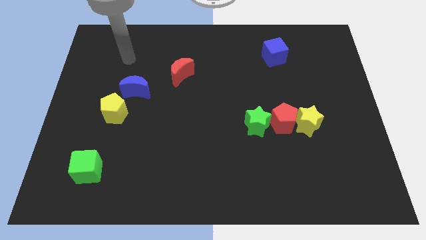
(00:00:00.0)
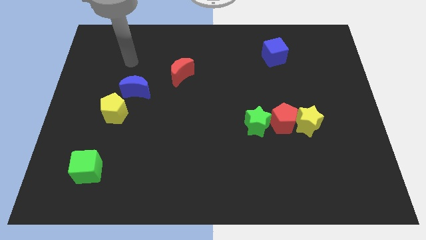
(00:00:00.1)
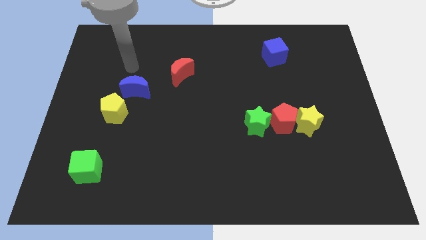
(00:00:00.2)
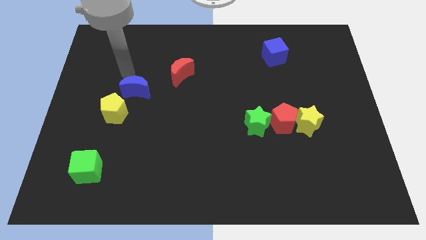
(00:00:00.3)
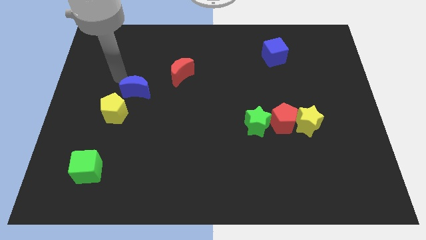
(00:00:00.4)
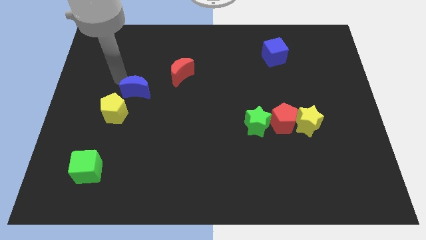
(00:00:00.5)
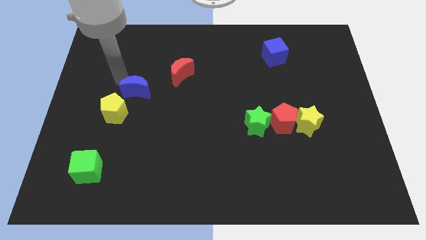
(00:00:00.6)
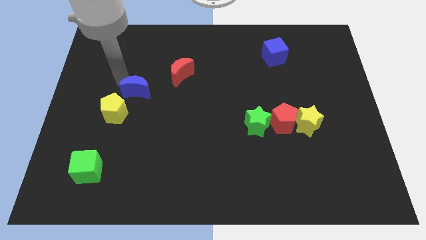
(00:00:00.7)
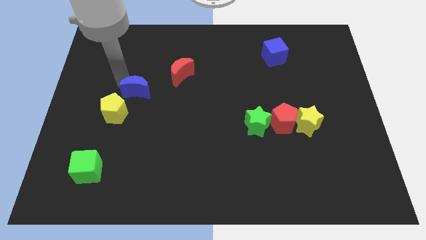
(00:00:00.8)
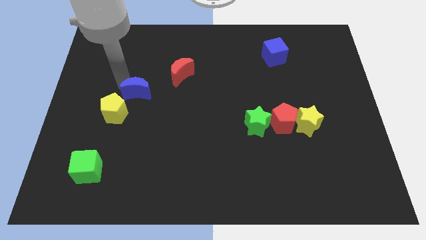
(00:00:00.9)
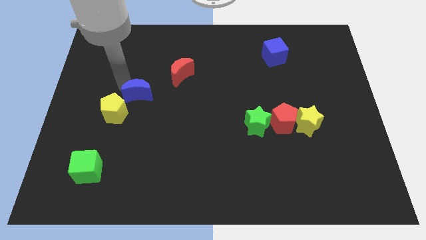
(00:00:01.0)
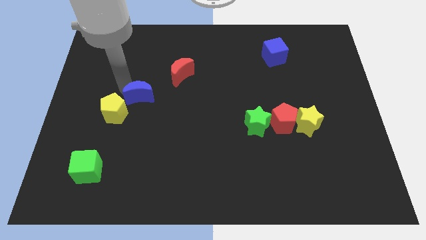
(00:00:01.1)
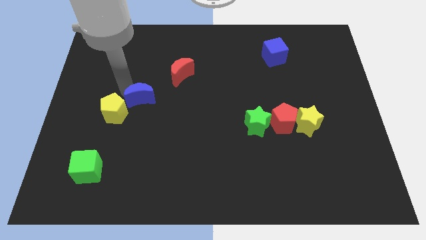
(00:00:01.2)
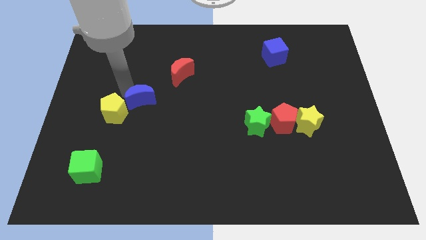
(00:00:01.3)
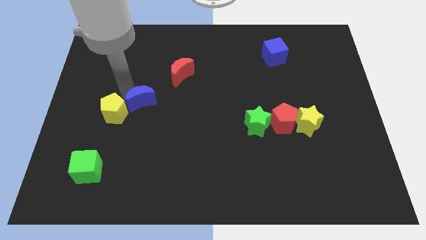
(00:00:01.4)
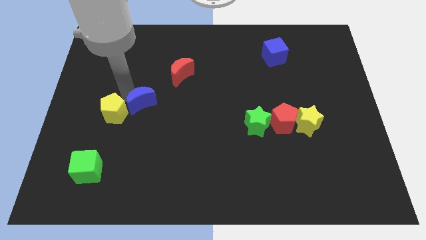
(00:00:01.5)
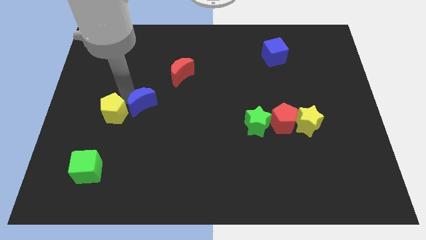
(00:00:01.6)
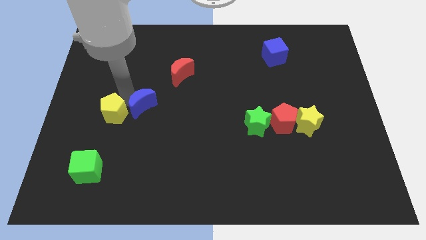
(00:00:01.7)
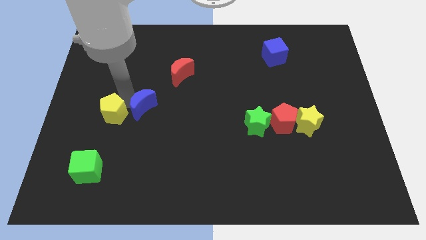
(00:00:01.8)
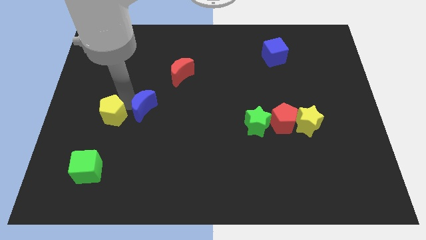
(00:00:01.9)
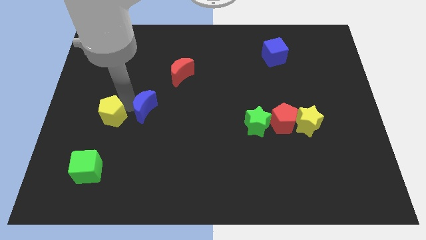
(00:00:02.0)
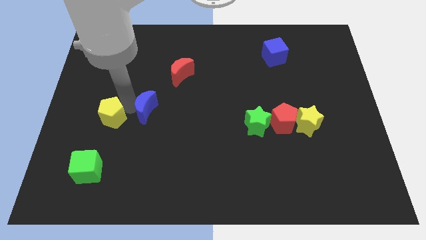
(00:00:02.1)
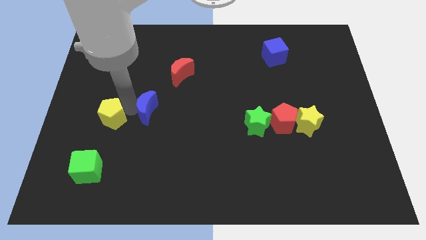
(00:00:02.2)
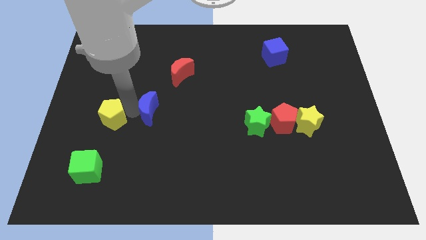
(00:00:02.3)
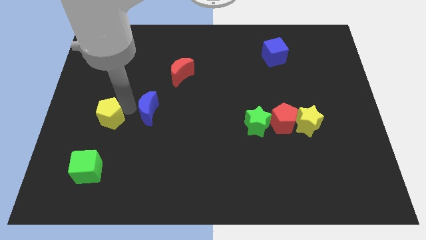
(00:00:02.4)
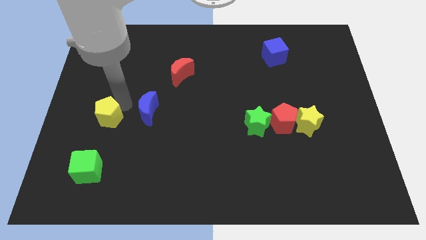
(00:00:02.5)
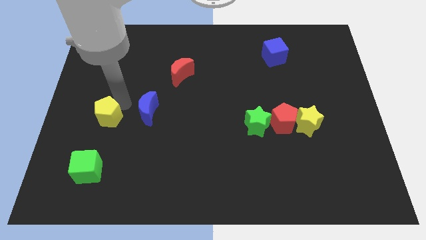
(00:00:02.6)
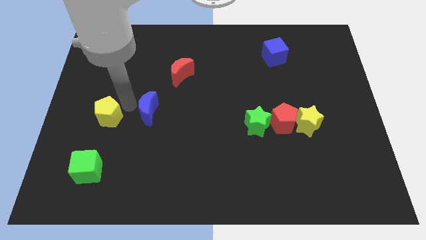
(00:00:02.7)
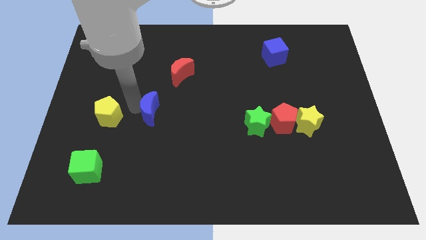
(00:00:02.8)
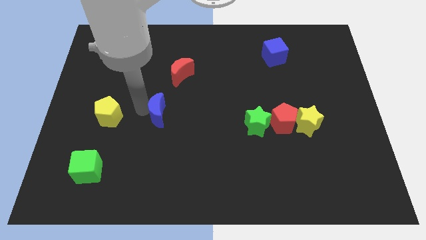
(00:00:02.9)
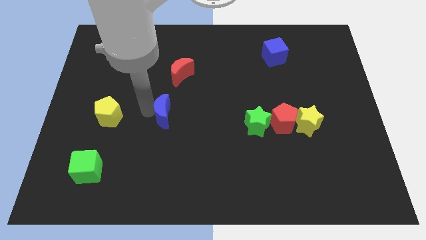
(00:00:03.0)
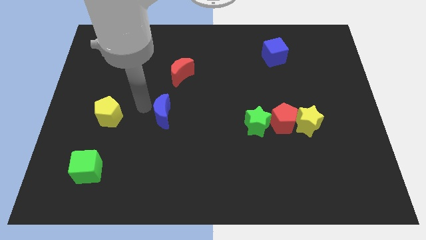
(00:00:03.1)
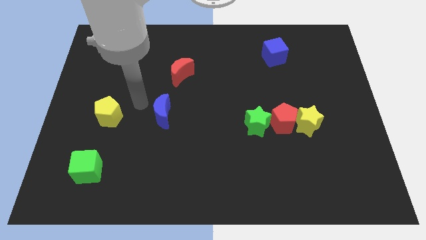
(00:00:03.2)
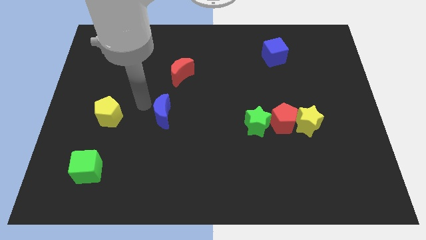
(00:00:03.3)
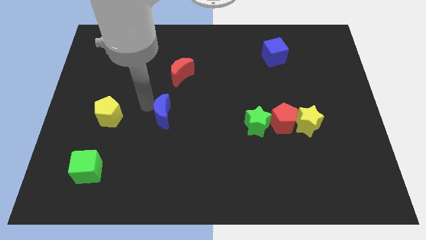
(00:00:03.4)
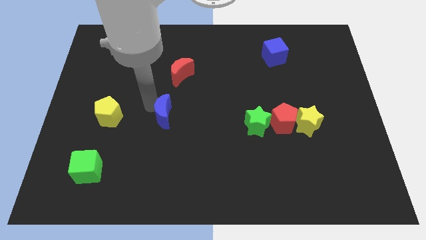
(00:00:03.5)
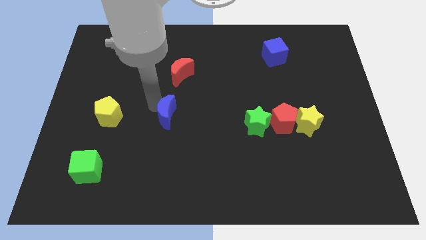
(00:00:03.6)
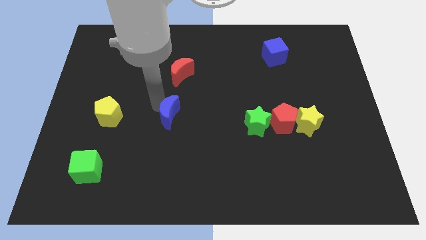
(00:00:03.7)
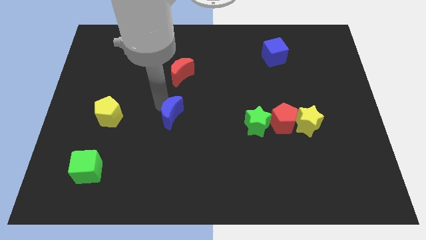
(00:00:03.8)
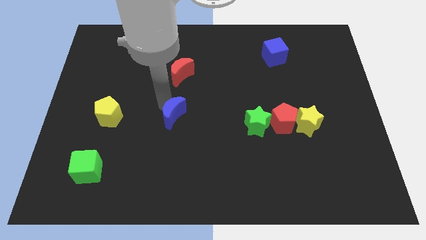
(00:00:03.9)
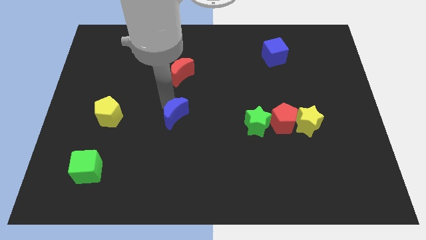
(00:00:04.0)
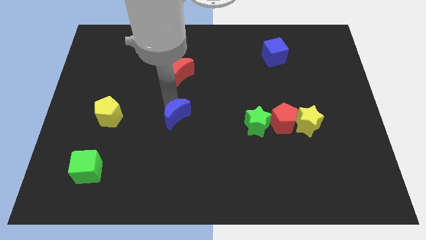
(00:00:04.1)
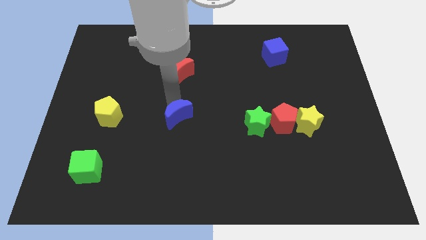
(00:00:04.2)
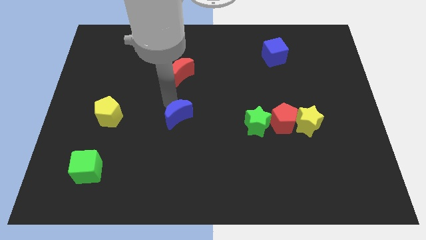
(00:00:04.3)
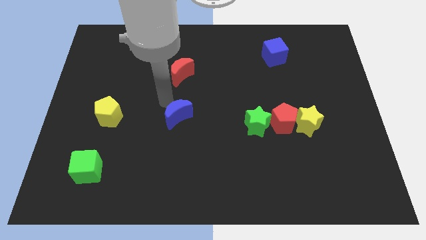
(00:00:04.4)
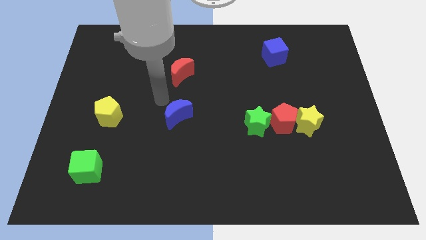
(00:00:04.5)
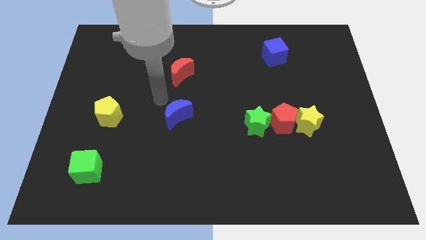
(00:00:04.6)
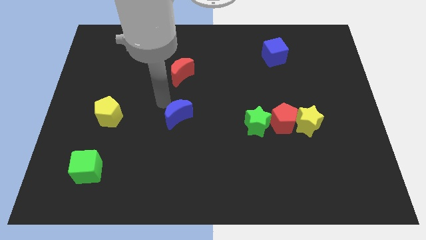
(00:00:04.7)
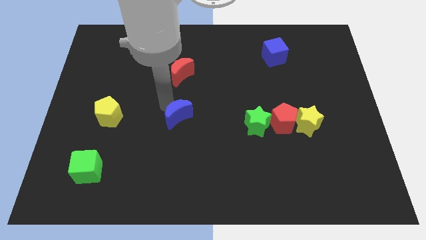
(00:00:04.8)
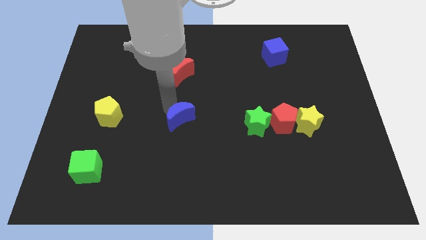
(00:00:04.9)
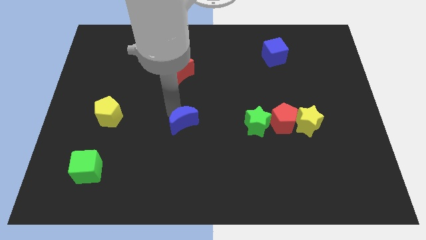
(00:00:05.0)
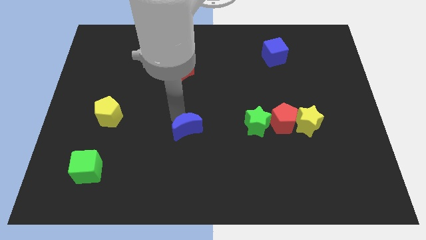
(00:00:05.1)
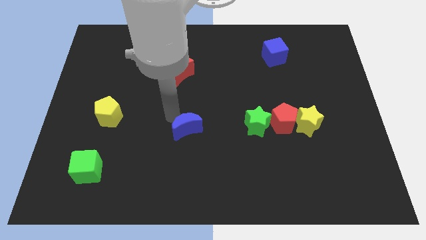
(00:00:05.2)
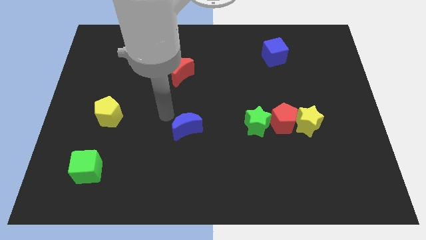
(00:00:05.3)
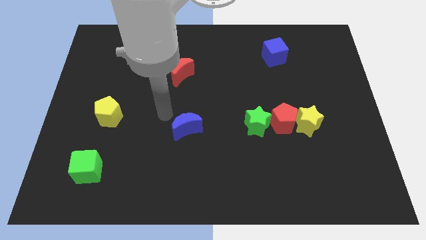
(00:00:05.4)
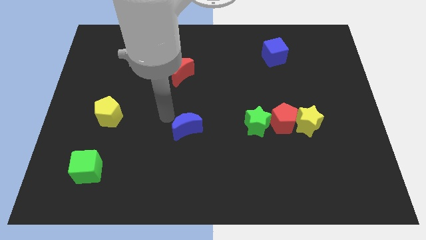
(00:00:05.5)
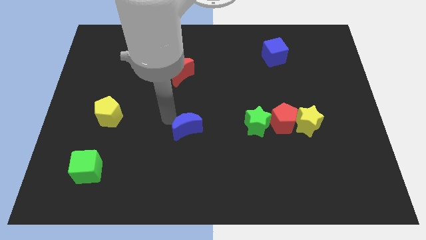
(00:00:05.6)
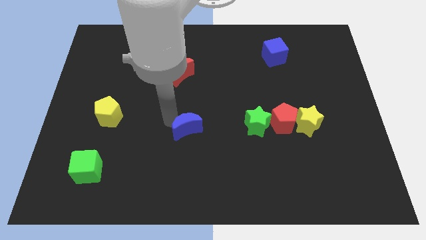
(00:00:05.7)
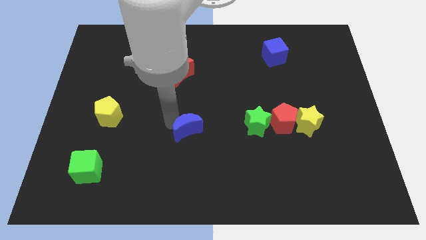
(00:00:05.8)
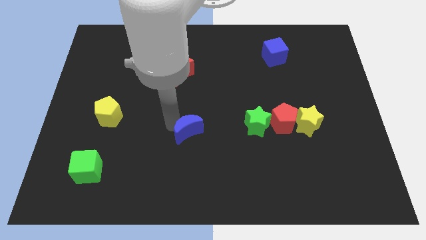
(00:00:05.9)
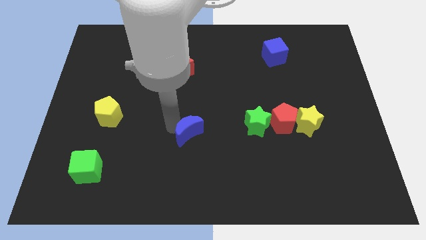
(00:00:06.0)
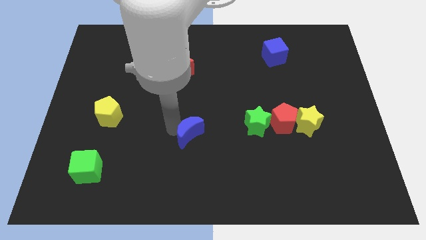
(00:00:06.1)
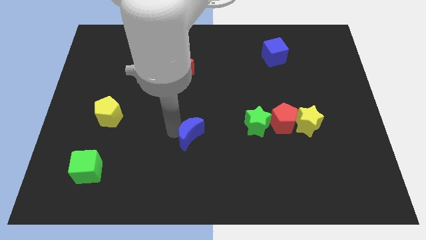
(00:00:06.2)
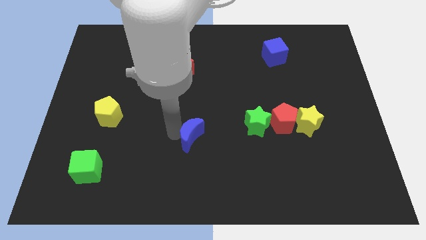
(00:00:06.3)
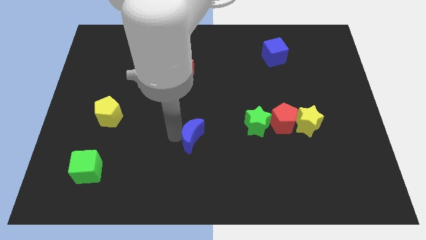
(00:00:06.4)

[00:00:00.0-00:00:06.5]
push the blue moon down and then to the right

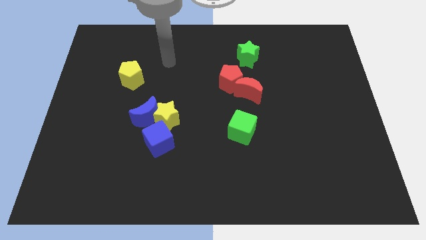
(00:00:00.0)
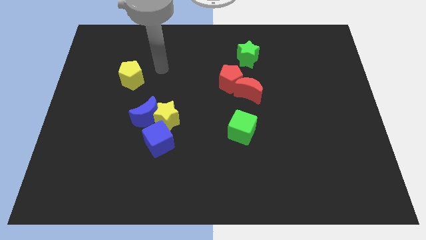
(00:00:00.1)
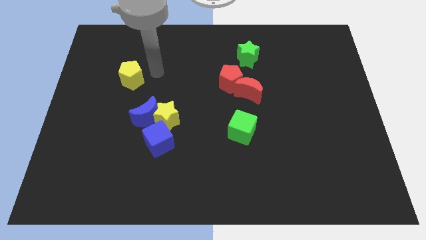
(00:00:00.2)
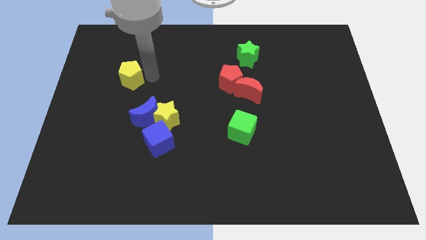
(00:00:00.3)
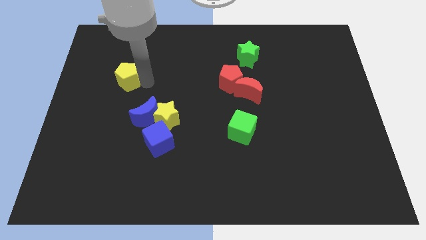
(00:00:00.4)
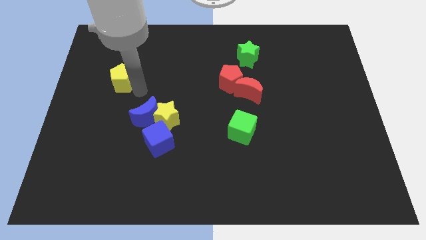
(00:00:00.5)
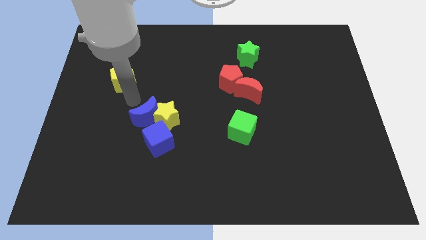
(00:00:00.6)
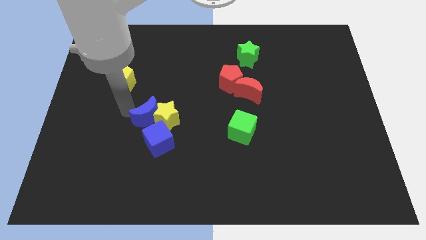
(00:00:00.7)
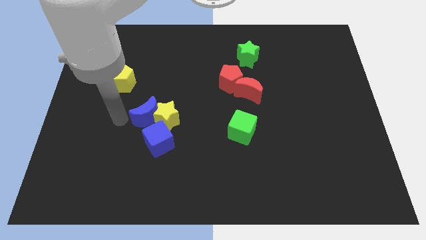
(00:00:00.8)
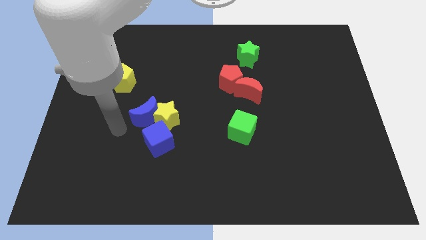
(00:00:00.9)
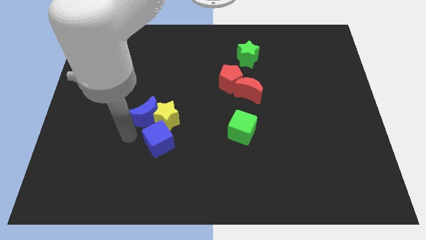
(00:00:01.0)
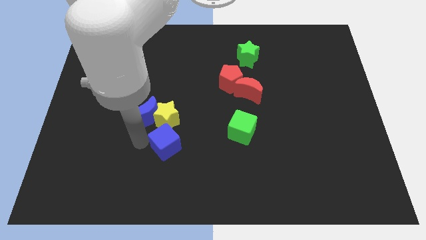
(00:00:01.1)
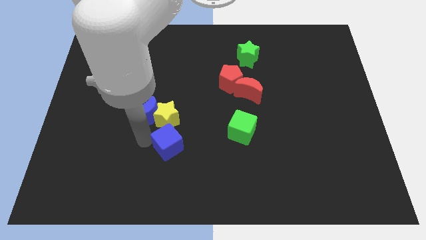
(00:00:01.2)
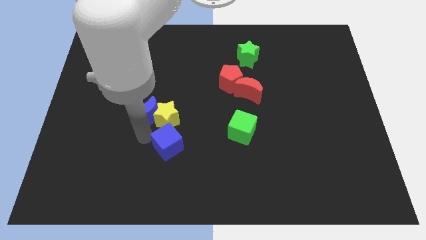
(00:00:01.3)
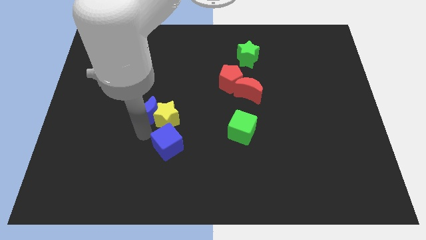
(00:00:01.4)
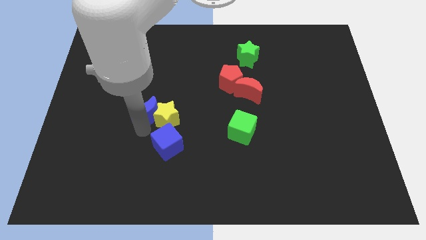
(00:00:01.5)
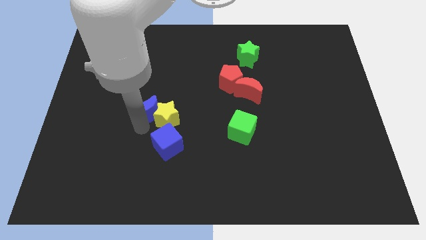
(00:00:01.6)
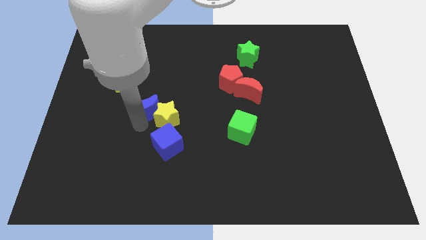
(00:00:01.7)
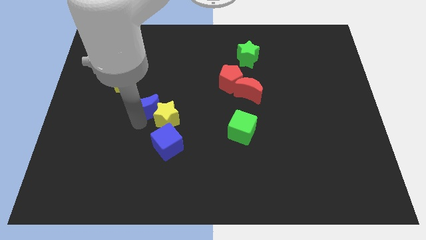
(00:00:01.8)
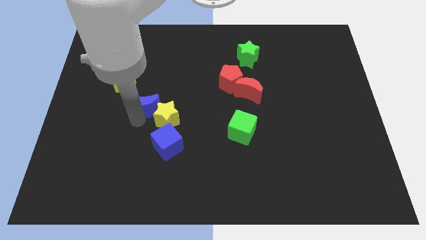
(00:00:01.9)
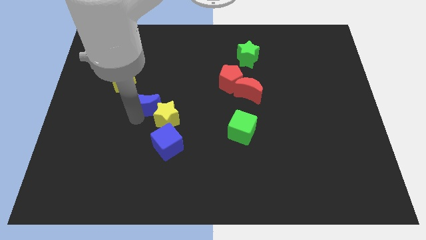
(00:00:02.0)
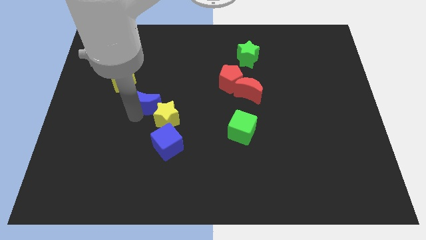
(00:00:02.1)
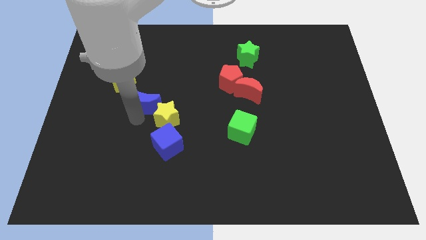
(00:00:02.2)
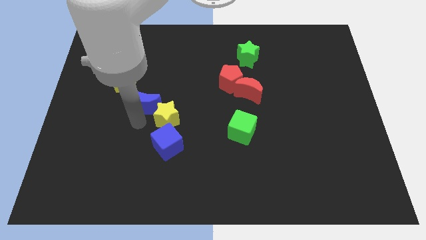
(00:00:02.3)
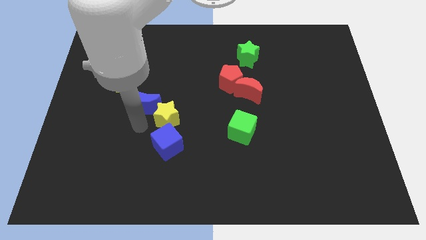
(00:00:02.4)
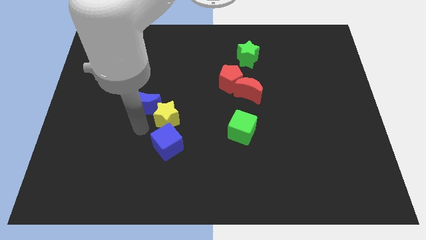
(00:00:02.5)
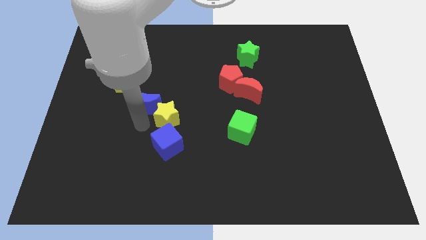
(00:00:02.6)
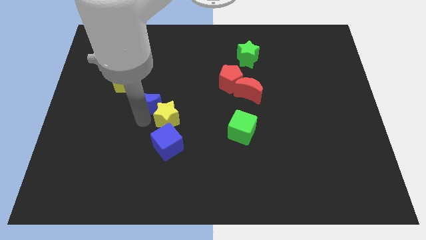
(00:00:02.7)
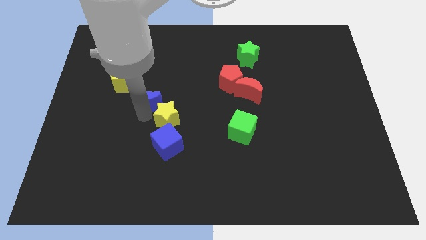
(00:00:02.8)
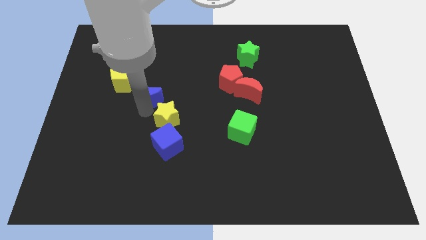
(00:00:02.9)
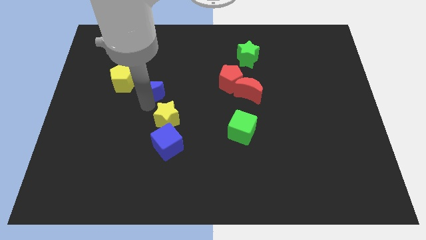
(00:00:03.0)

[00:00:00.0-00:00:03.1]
push the blue moon up slightly
